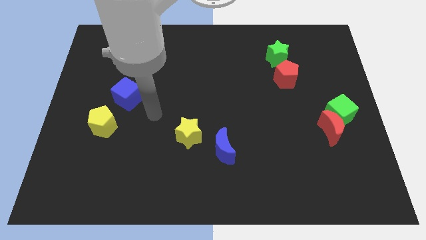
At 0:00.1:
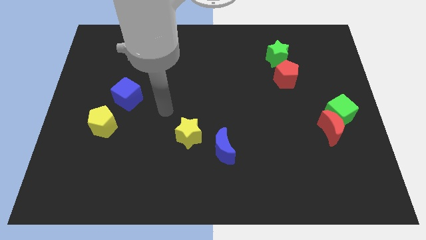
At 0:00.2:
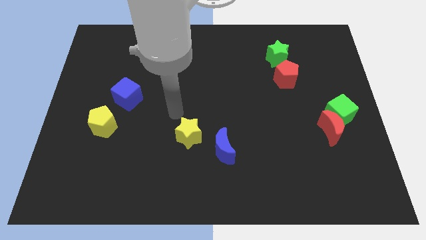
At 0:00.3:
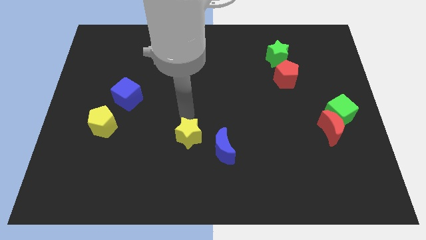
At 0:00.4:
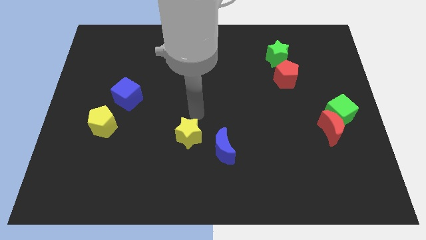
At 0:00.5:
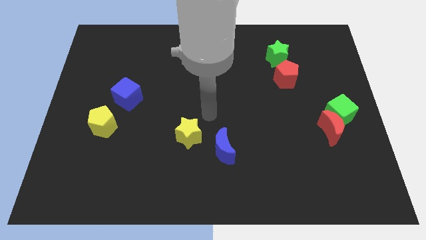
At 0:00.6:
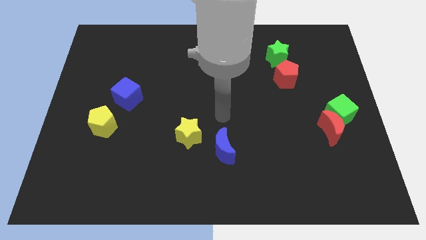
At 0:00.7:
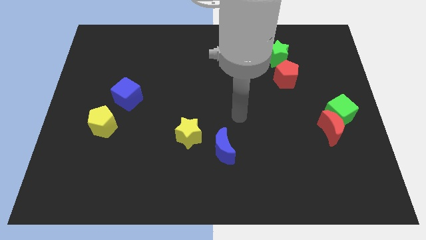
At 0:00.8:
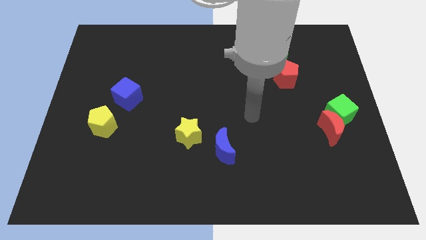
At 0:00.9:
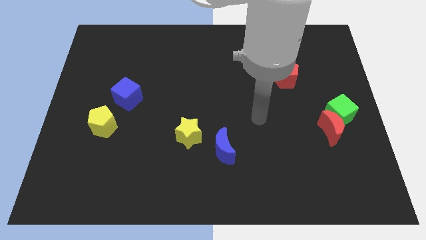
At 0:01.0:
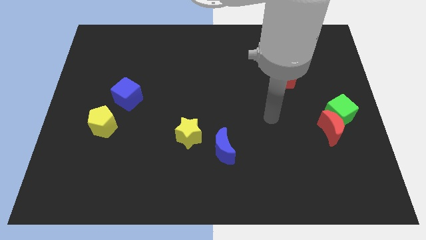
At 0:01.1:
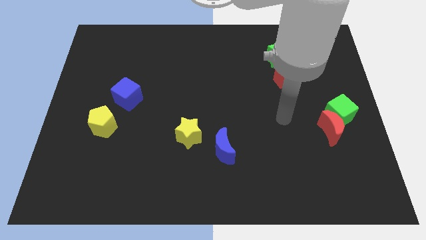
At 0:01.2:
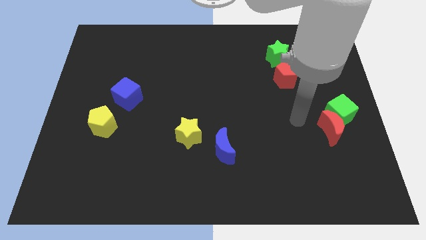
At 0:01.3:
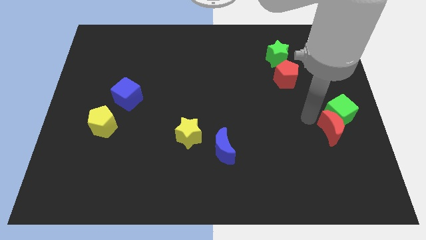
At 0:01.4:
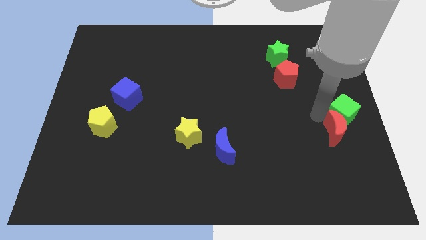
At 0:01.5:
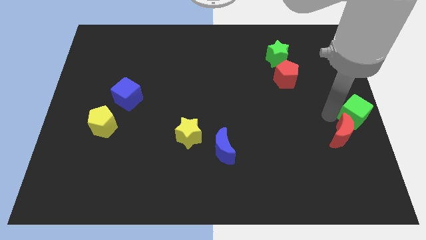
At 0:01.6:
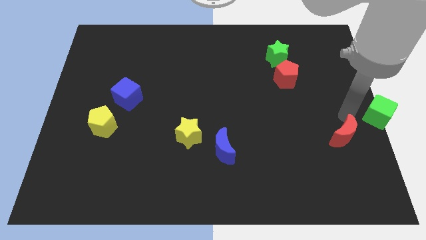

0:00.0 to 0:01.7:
move the red moon away from the green cube

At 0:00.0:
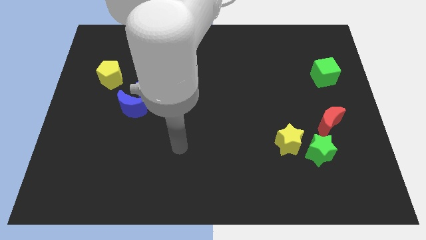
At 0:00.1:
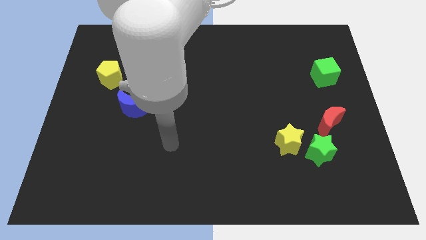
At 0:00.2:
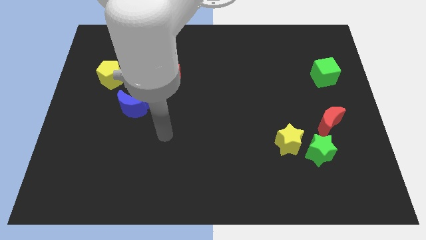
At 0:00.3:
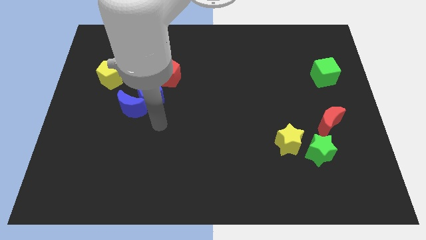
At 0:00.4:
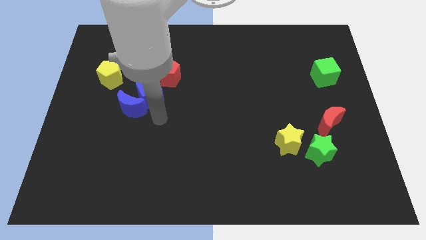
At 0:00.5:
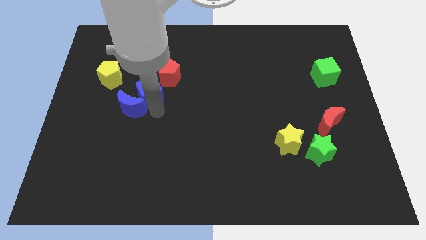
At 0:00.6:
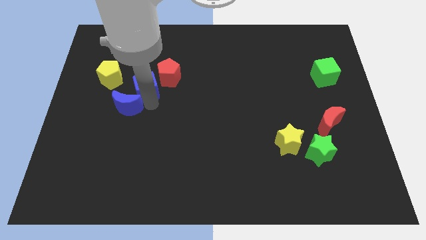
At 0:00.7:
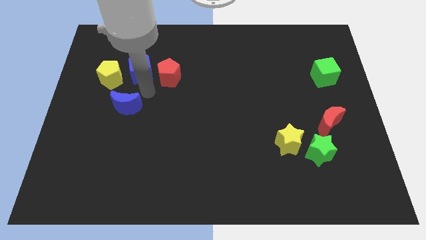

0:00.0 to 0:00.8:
separate the blue moon from the blue cube

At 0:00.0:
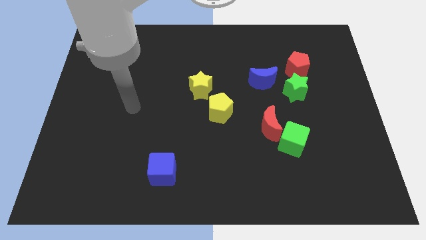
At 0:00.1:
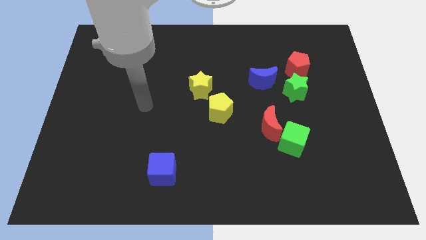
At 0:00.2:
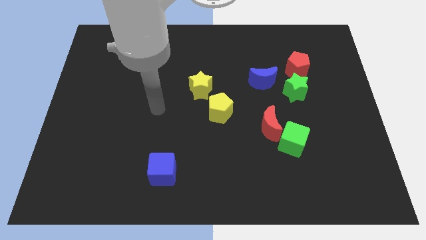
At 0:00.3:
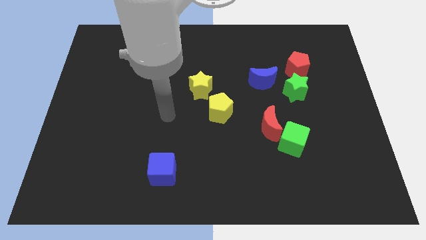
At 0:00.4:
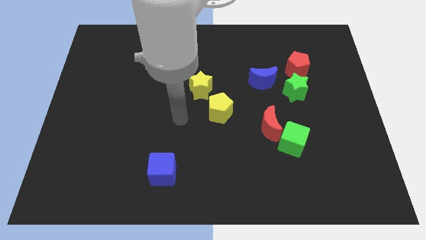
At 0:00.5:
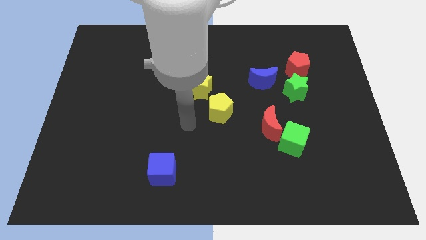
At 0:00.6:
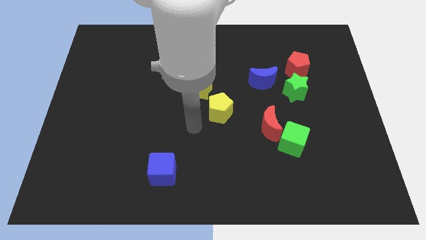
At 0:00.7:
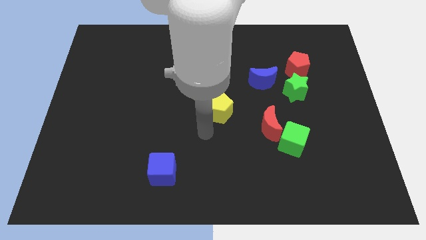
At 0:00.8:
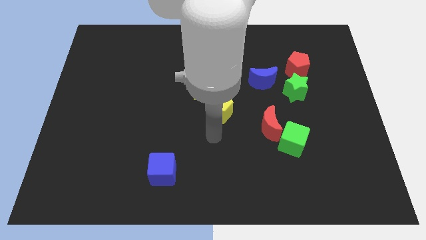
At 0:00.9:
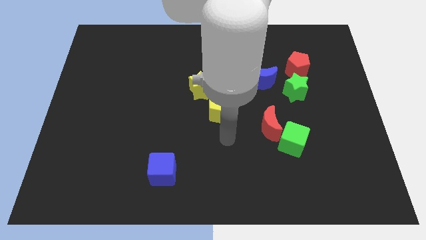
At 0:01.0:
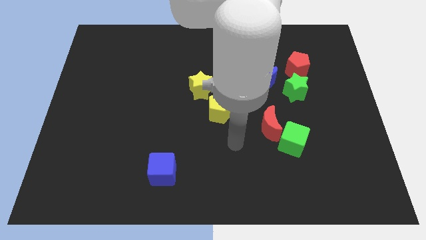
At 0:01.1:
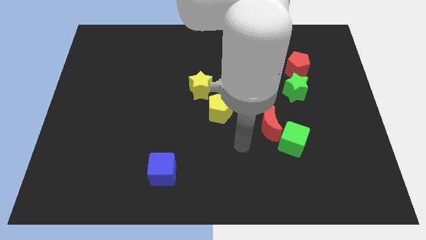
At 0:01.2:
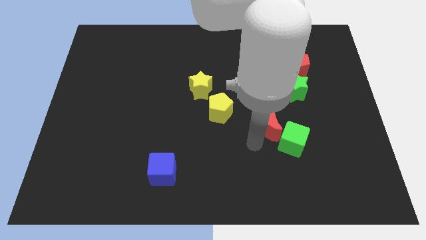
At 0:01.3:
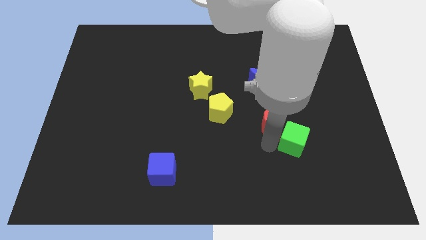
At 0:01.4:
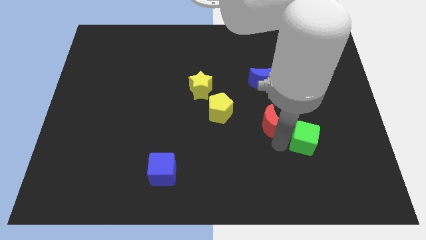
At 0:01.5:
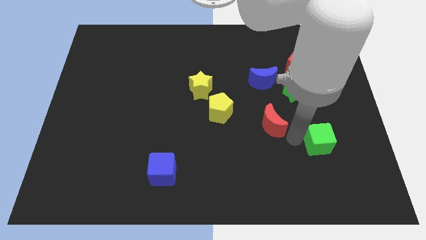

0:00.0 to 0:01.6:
separate the red moon from the green cube

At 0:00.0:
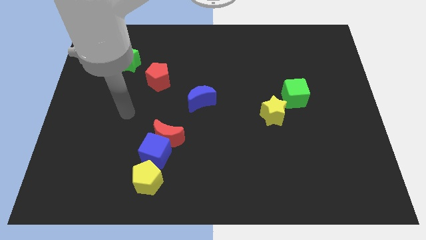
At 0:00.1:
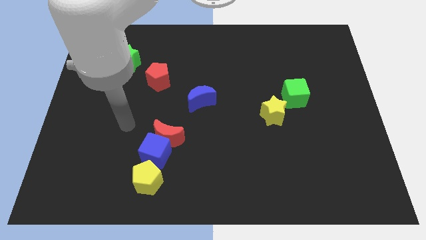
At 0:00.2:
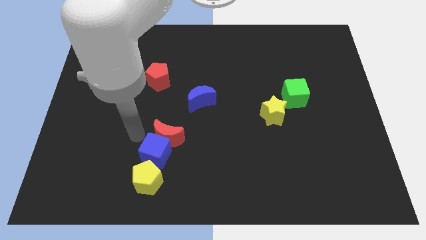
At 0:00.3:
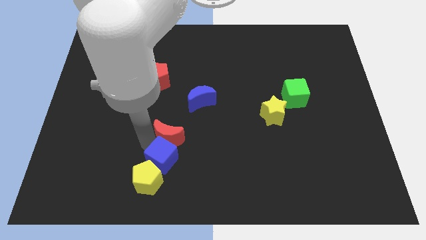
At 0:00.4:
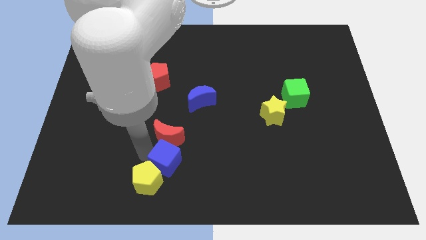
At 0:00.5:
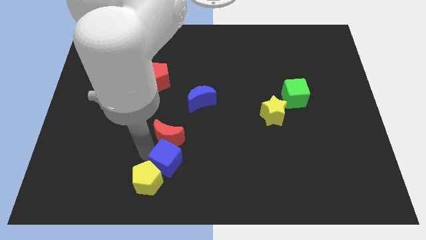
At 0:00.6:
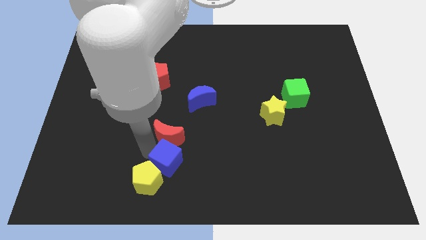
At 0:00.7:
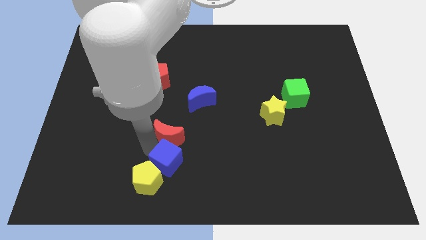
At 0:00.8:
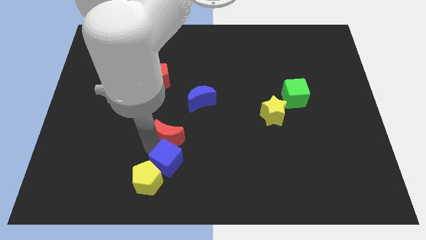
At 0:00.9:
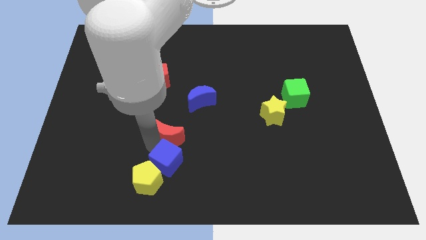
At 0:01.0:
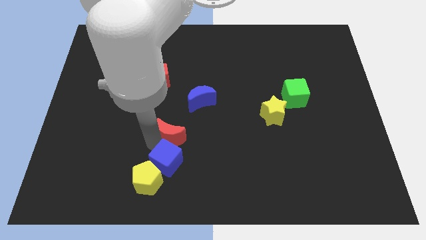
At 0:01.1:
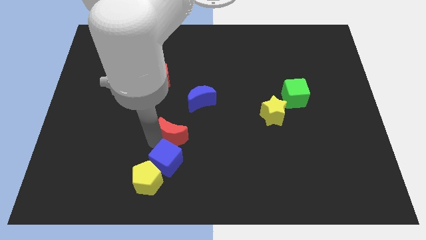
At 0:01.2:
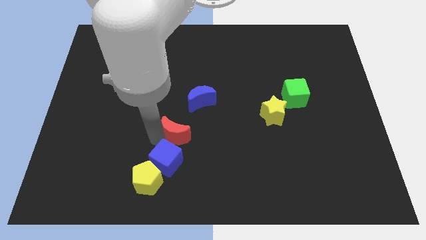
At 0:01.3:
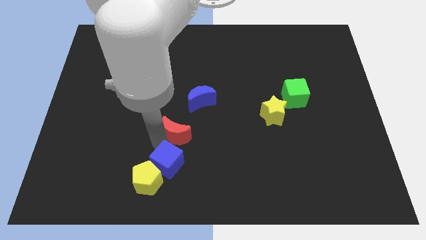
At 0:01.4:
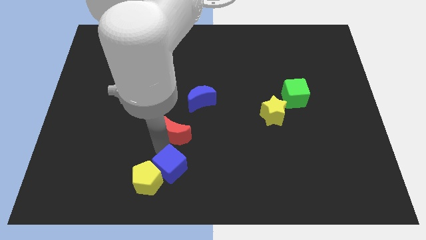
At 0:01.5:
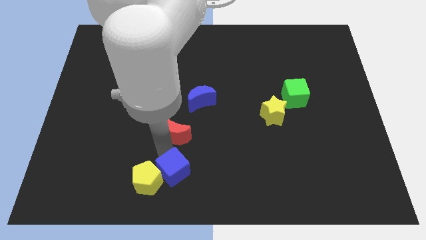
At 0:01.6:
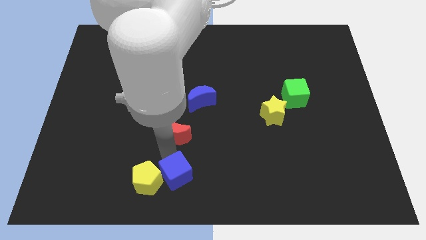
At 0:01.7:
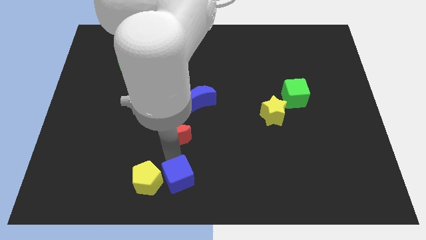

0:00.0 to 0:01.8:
move the red moon away from the blue cube

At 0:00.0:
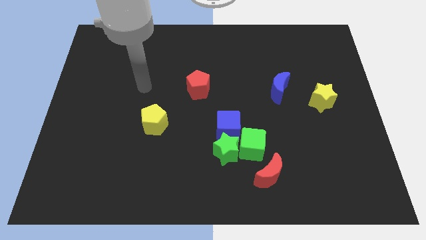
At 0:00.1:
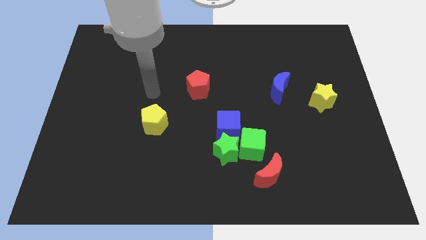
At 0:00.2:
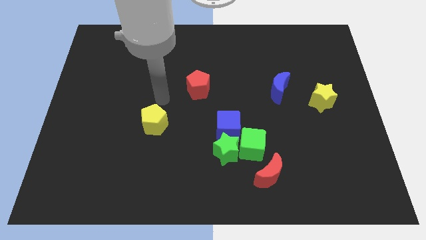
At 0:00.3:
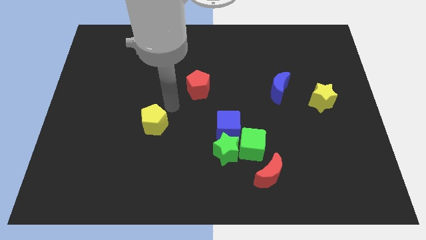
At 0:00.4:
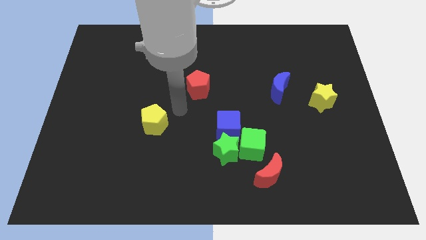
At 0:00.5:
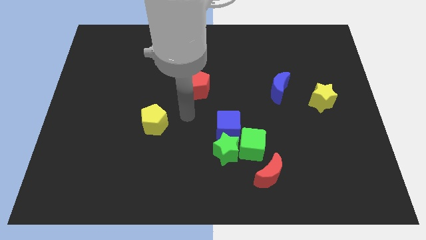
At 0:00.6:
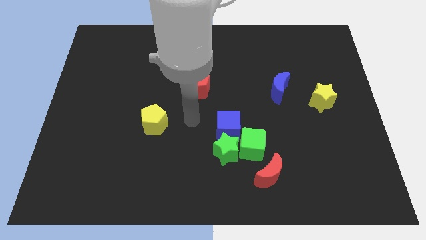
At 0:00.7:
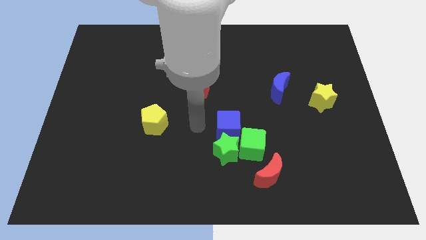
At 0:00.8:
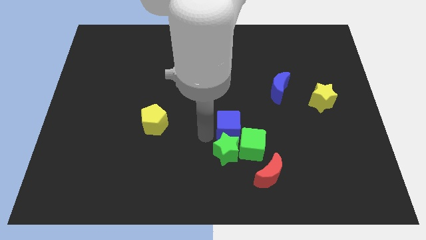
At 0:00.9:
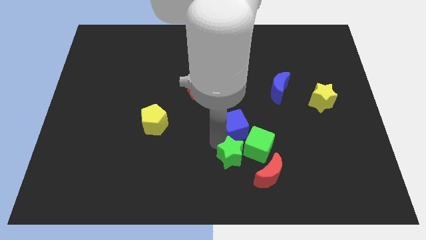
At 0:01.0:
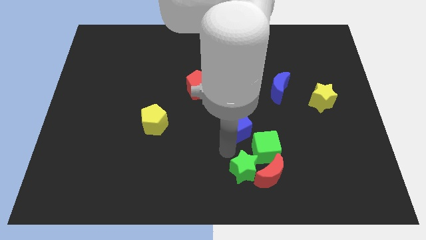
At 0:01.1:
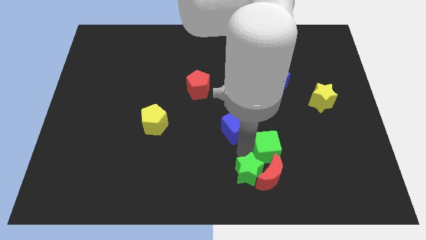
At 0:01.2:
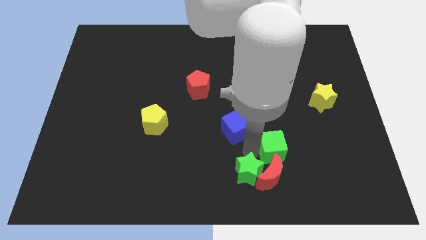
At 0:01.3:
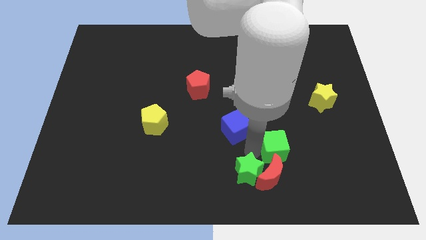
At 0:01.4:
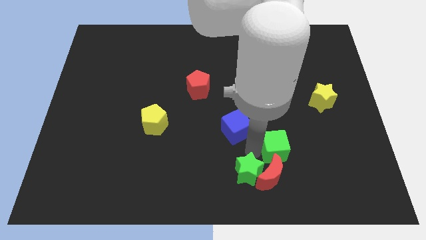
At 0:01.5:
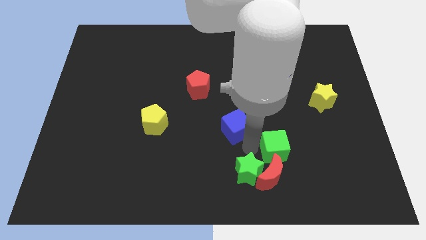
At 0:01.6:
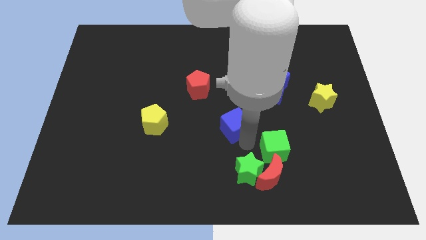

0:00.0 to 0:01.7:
pull the blue cube apart from the green star and green cube

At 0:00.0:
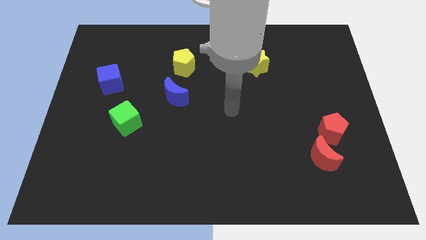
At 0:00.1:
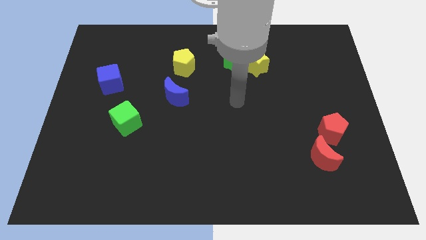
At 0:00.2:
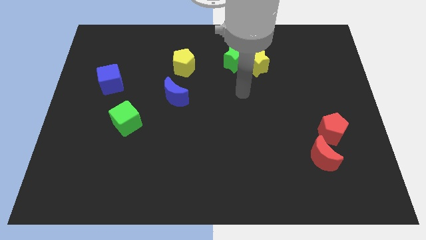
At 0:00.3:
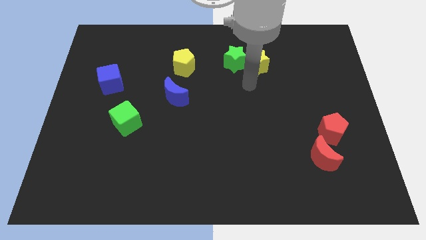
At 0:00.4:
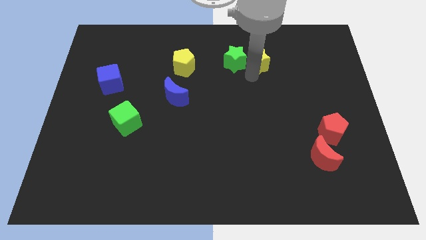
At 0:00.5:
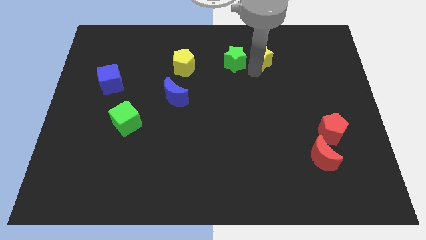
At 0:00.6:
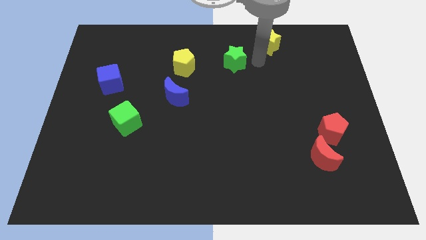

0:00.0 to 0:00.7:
move the green star away from the yellow star

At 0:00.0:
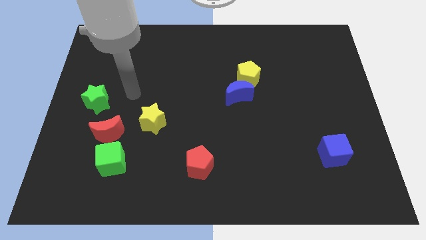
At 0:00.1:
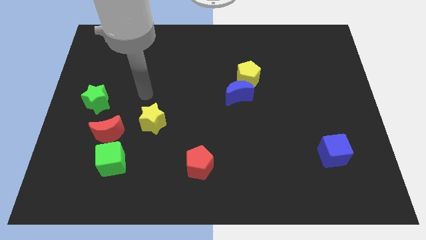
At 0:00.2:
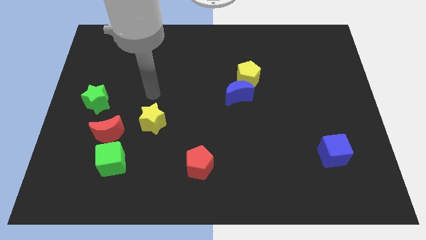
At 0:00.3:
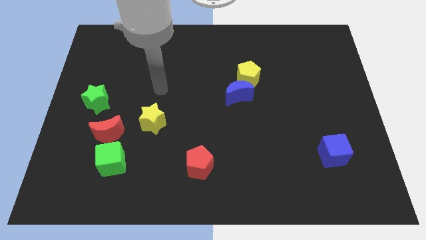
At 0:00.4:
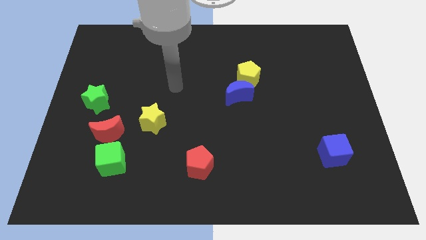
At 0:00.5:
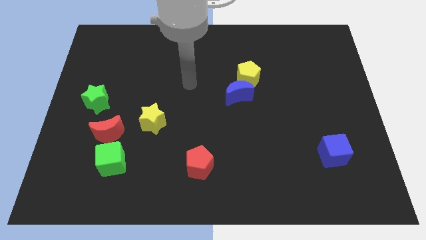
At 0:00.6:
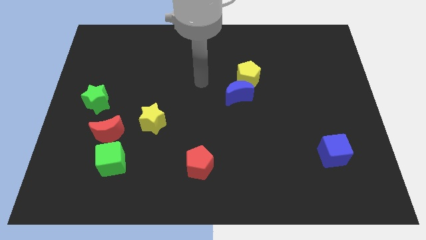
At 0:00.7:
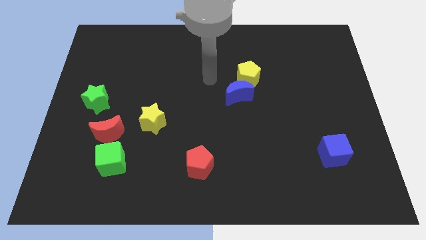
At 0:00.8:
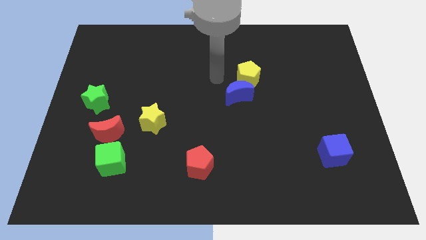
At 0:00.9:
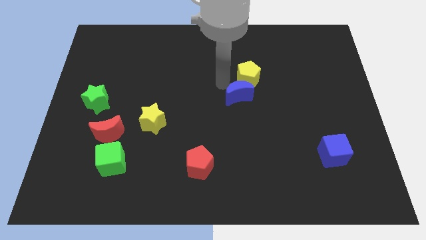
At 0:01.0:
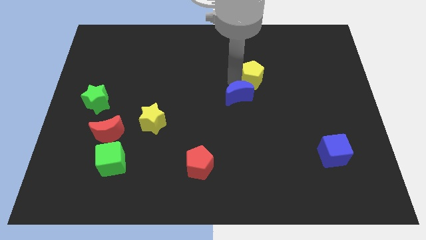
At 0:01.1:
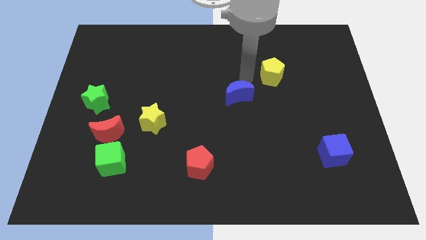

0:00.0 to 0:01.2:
pull the blue moon apart from the yellow pentagon
